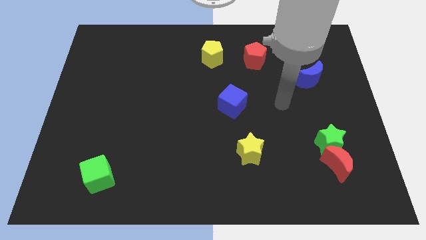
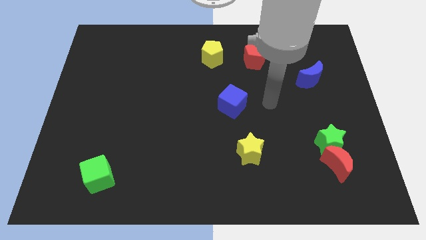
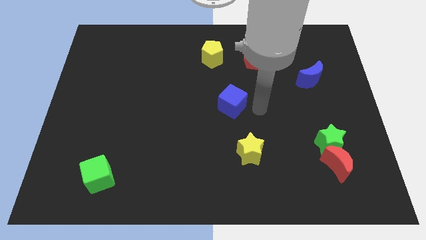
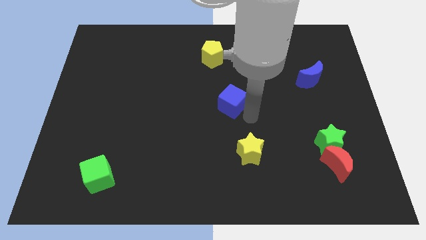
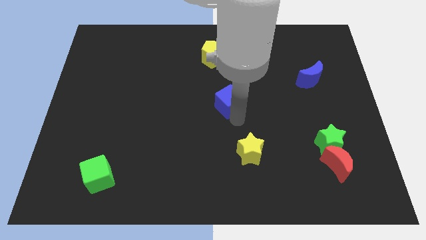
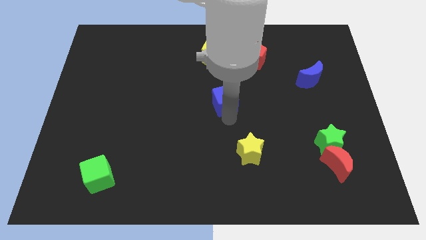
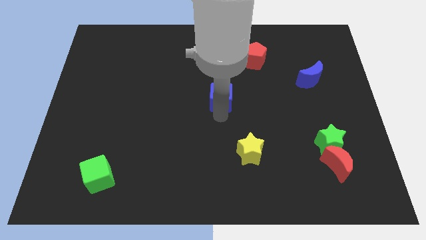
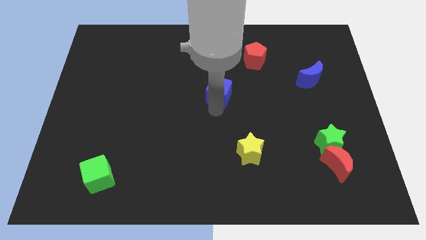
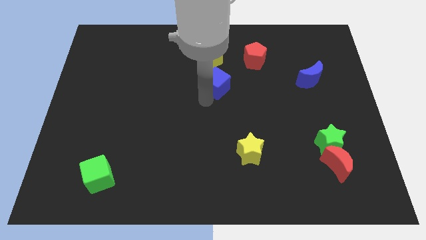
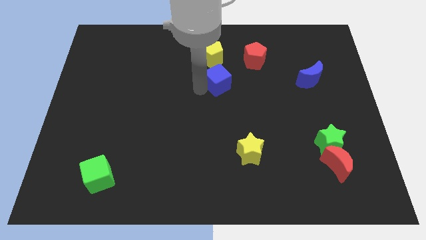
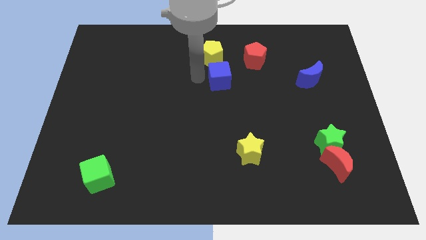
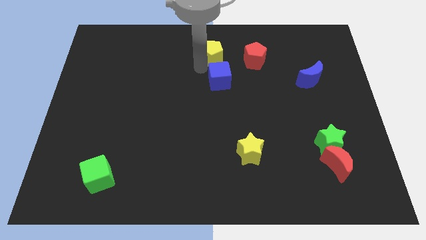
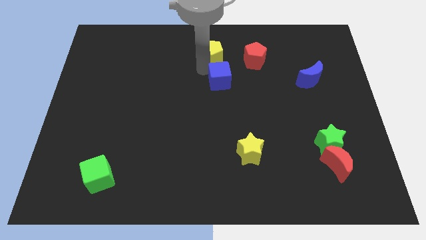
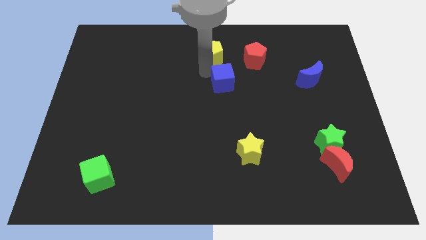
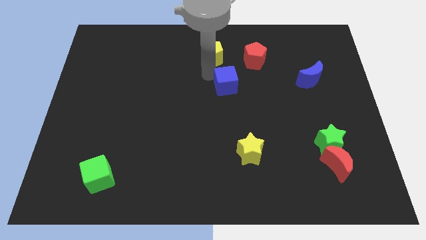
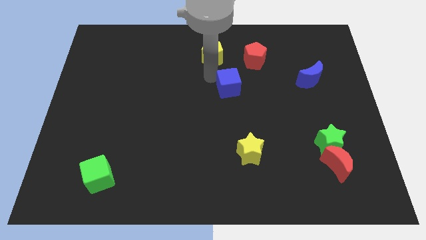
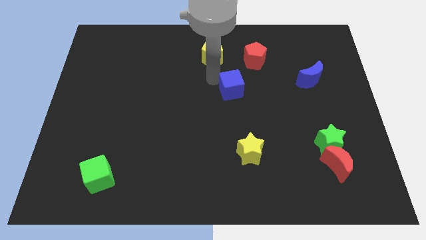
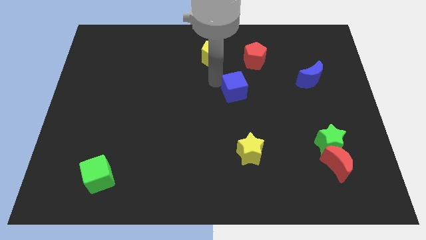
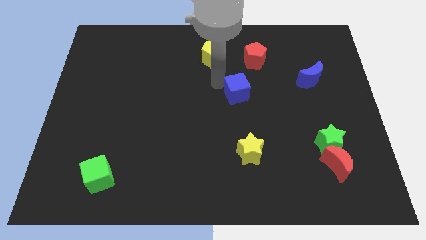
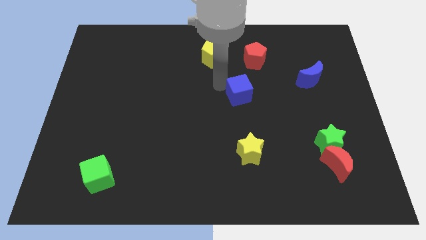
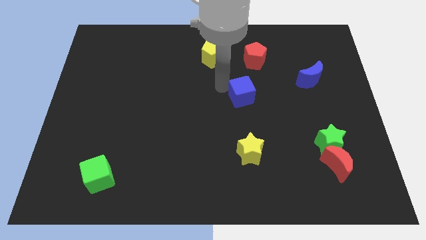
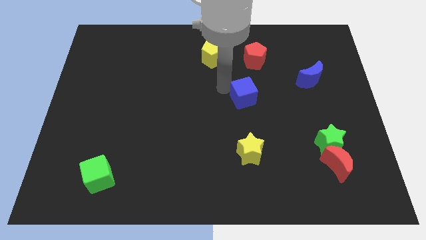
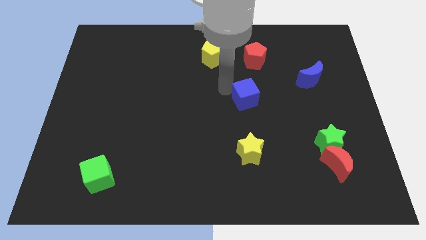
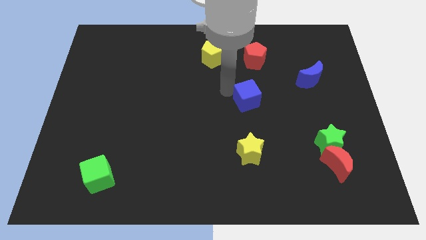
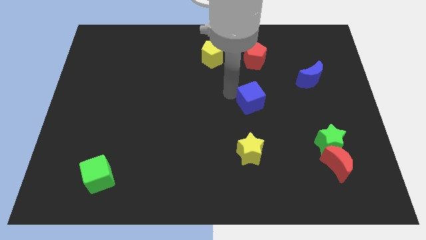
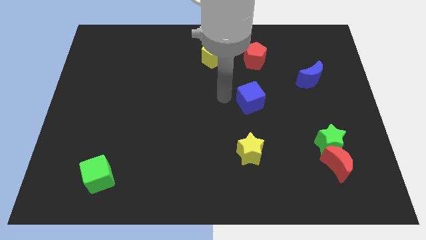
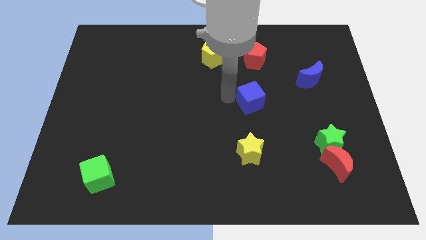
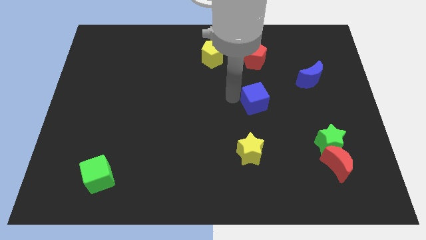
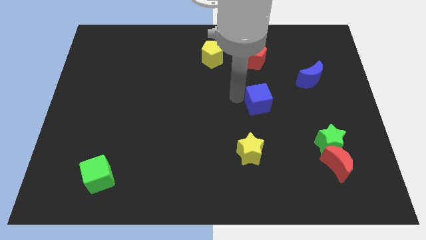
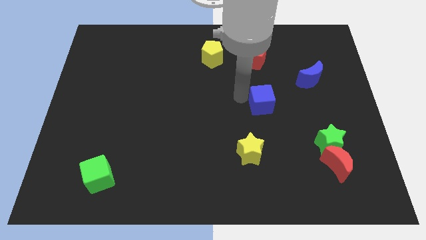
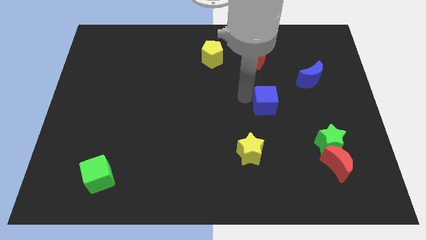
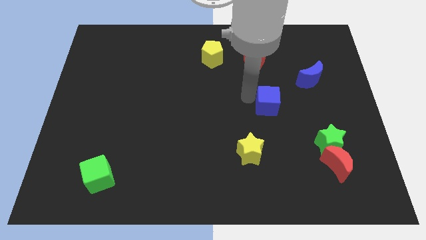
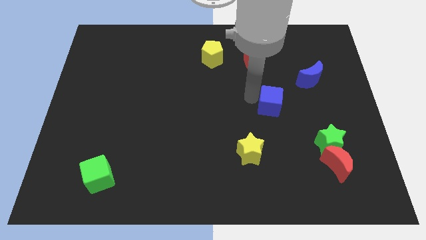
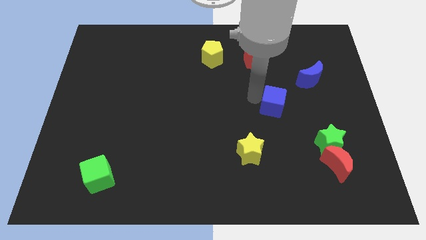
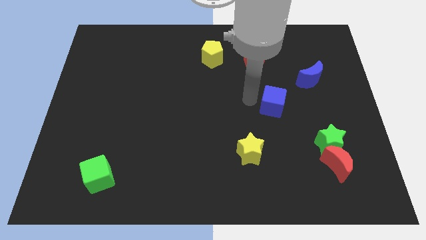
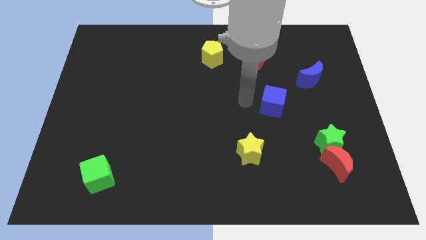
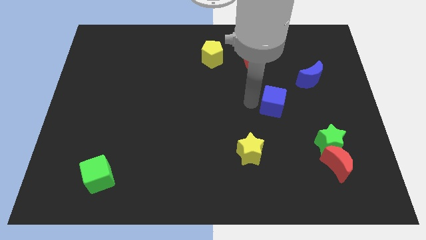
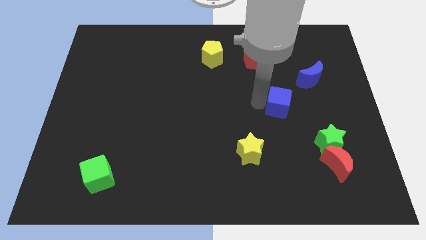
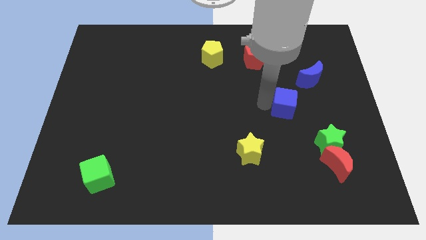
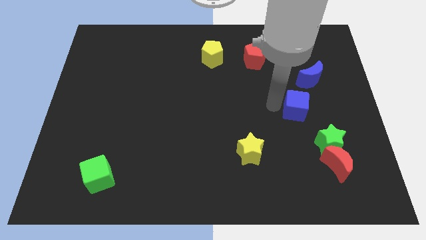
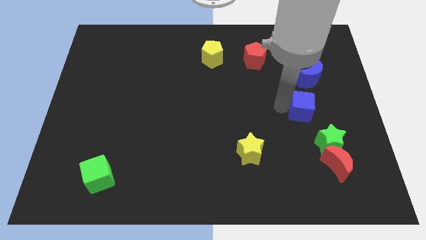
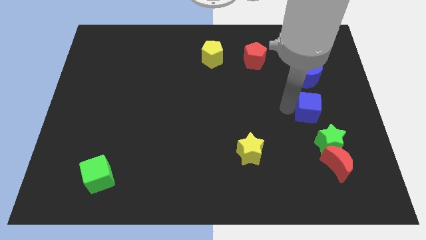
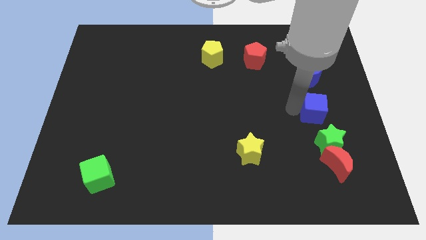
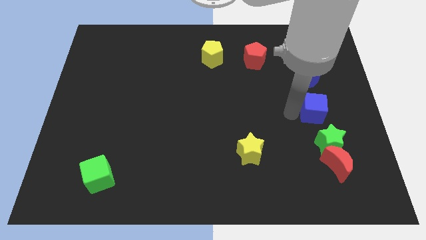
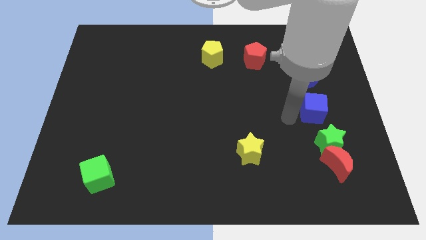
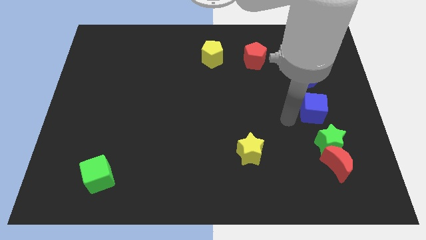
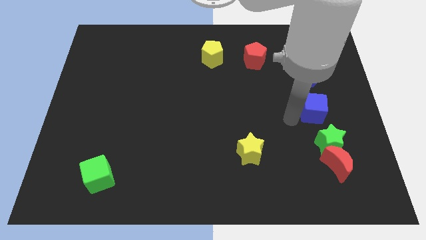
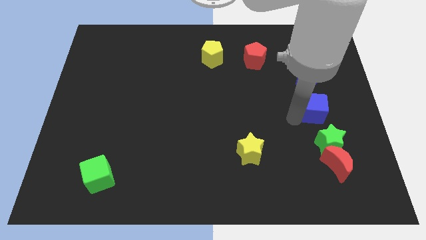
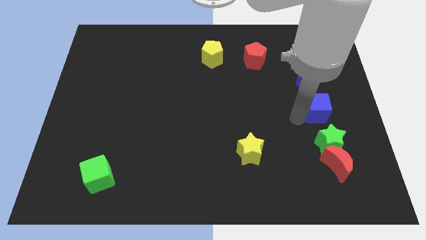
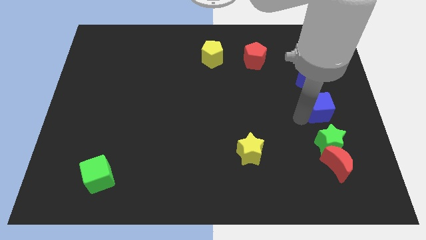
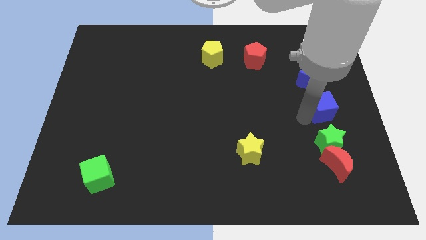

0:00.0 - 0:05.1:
move the blue cube to the right side

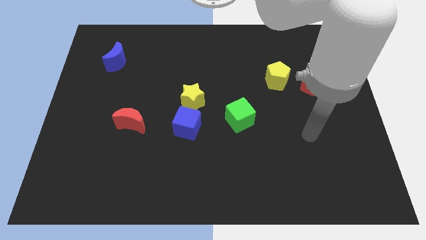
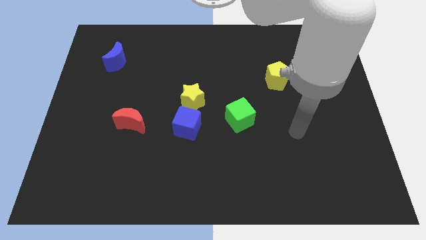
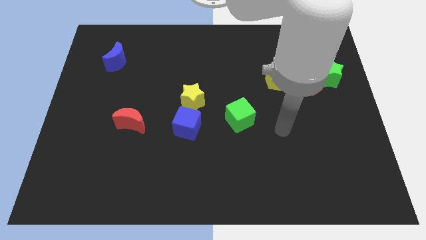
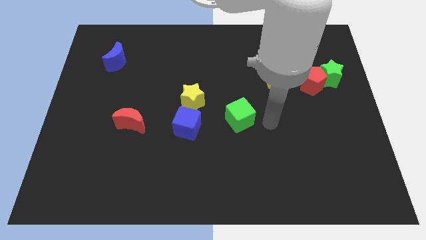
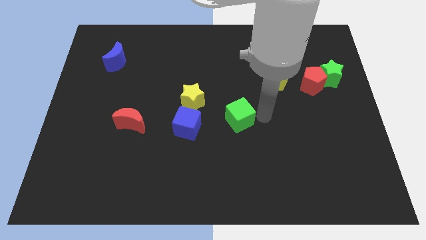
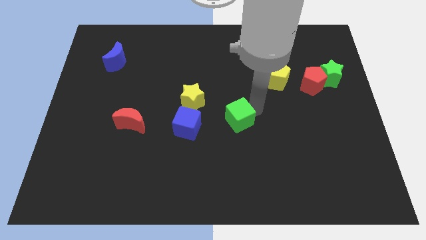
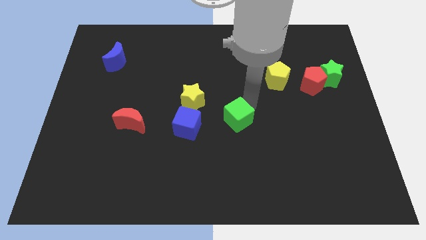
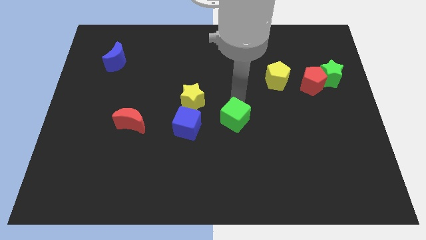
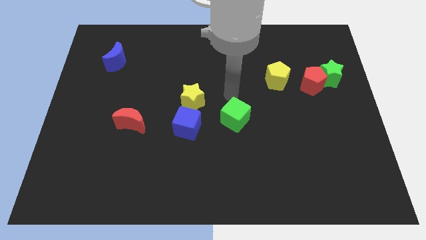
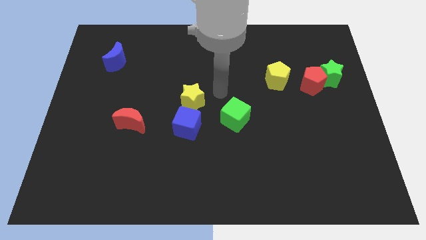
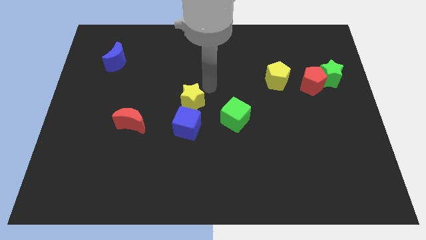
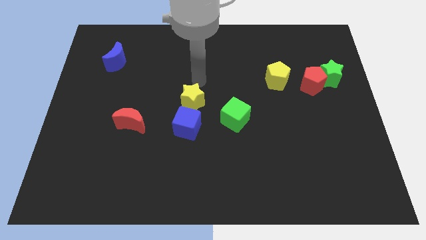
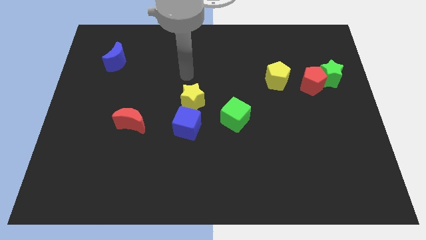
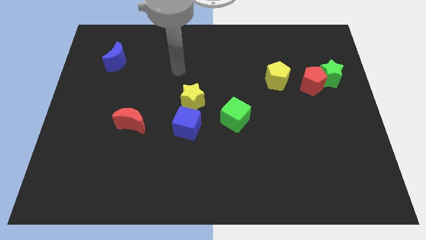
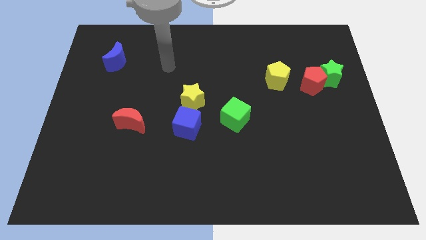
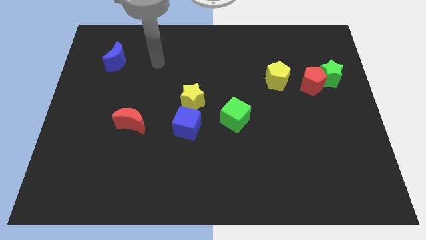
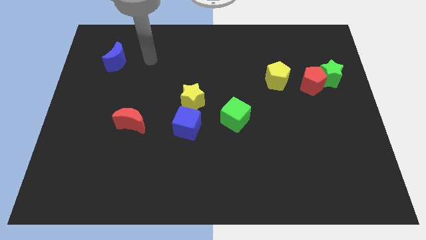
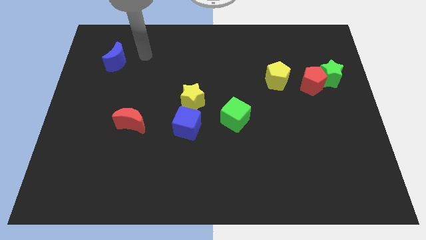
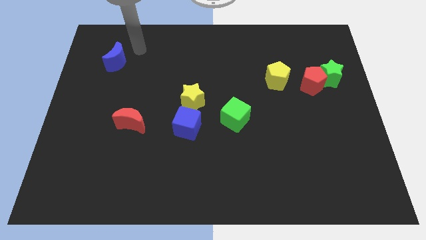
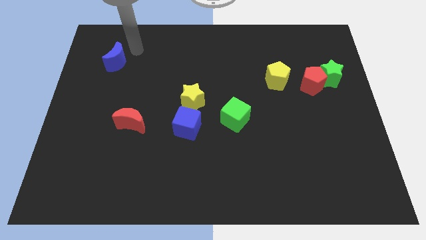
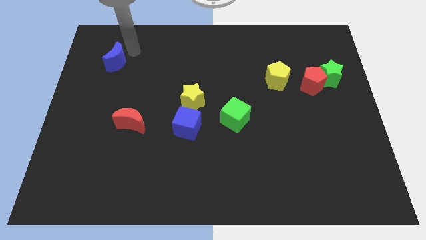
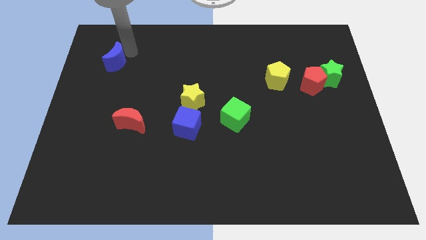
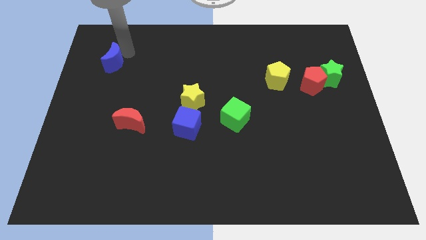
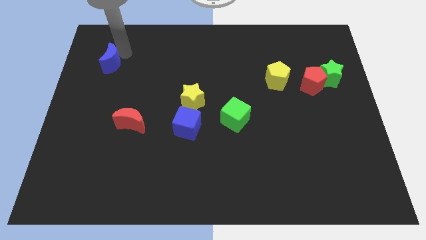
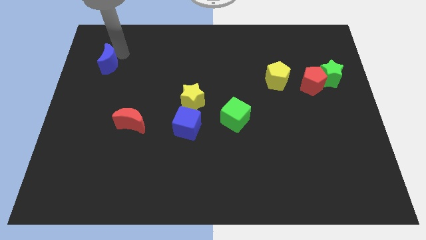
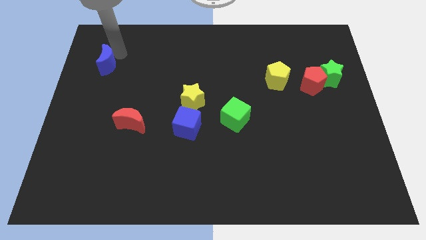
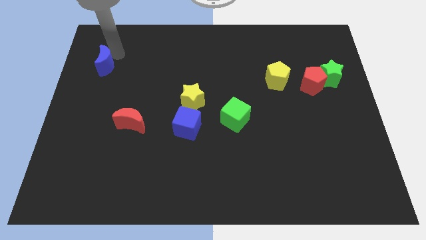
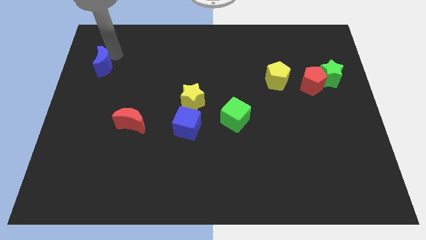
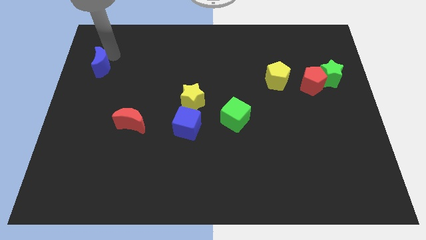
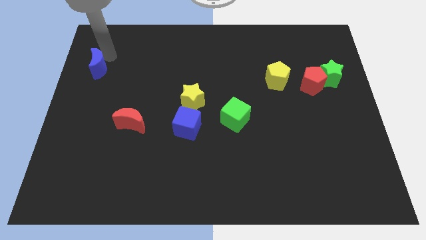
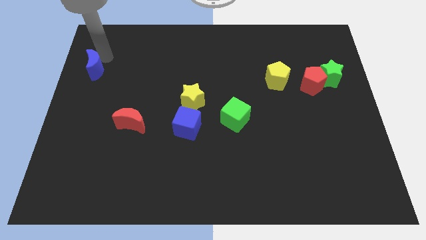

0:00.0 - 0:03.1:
move the blue moon to the center left
